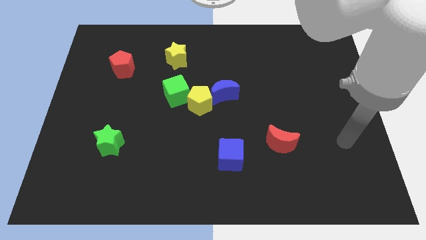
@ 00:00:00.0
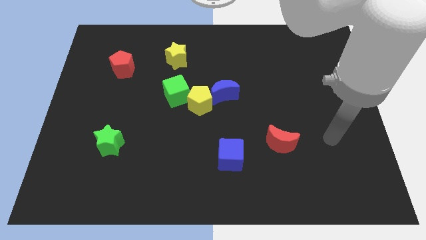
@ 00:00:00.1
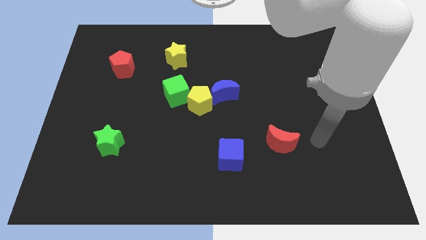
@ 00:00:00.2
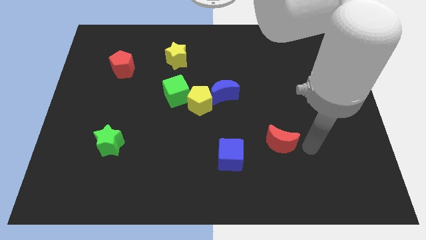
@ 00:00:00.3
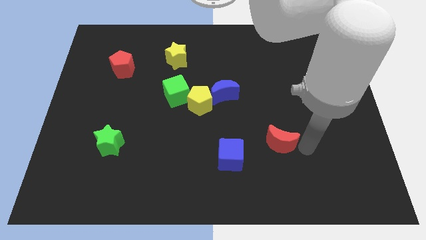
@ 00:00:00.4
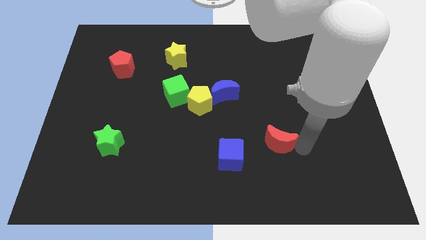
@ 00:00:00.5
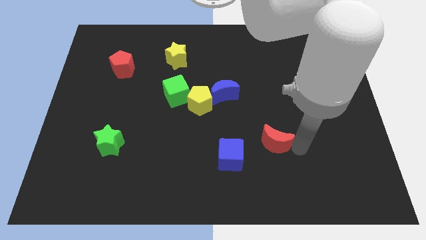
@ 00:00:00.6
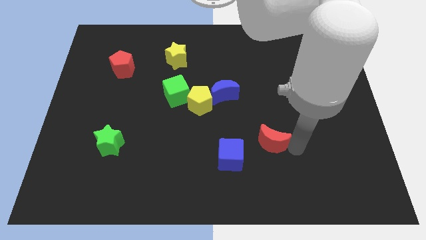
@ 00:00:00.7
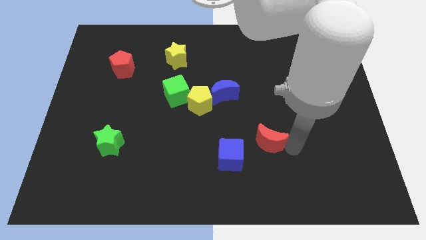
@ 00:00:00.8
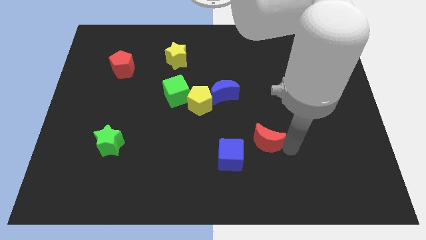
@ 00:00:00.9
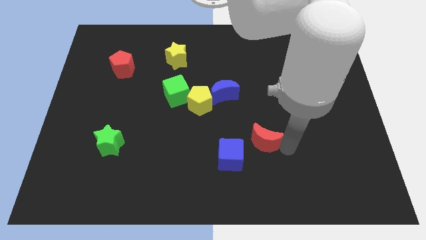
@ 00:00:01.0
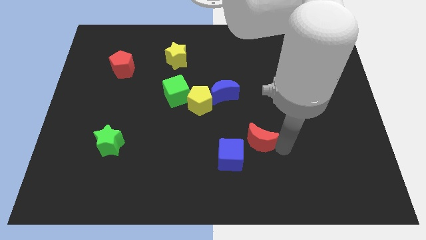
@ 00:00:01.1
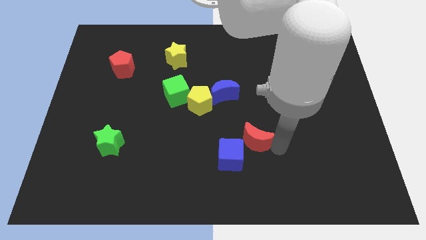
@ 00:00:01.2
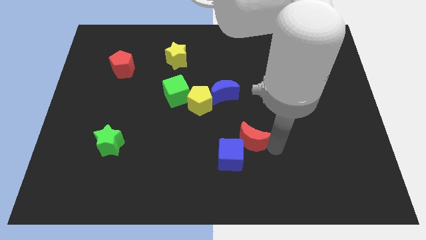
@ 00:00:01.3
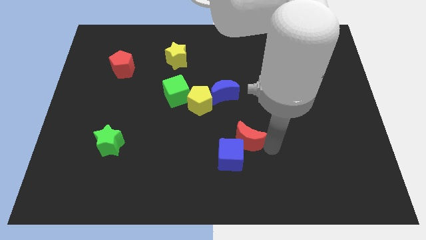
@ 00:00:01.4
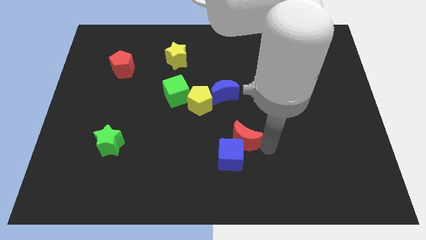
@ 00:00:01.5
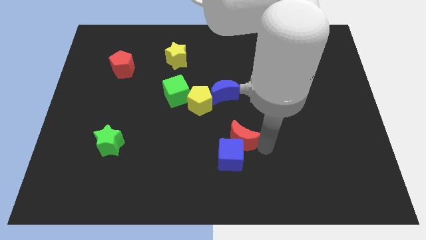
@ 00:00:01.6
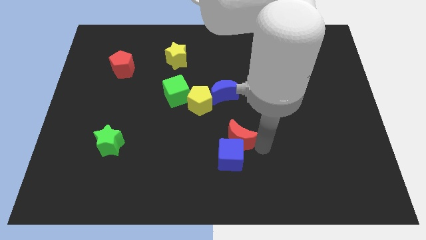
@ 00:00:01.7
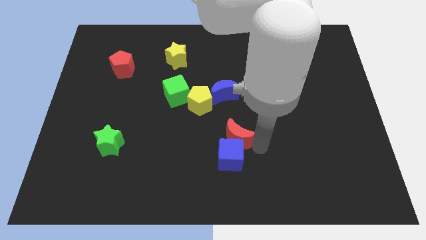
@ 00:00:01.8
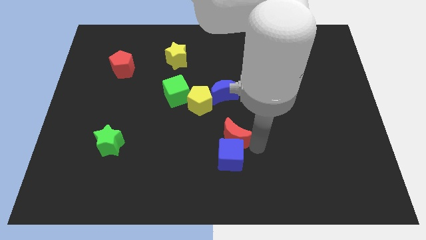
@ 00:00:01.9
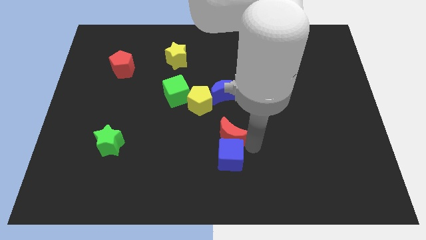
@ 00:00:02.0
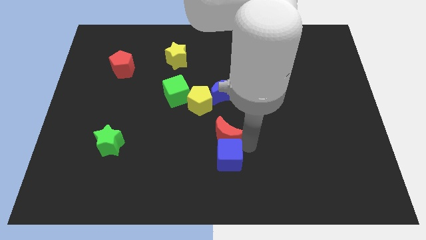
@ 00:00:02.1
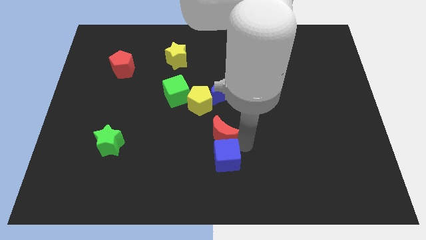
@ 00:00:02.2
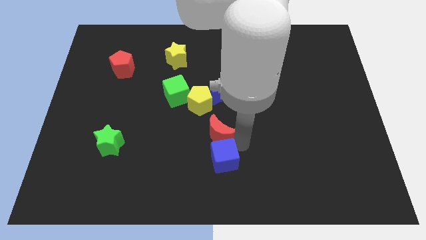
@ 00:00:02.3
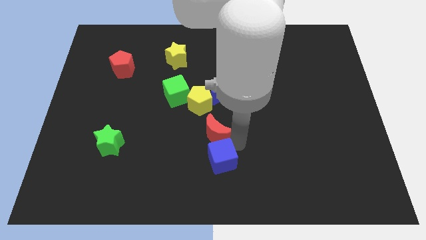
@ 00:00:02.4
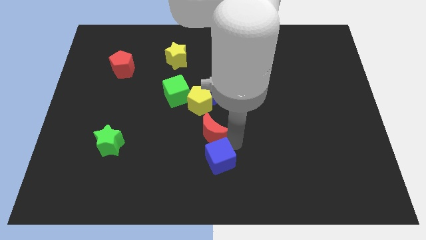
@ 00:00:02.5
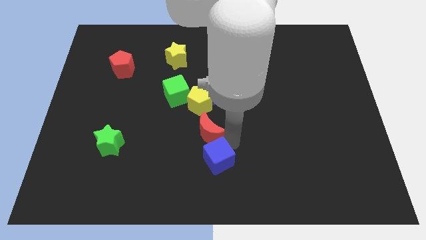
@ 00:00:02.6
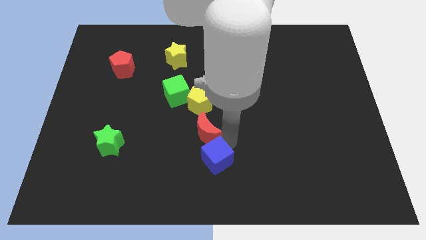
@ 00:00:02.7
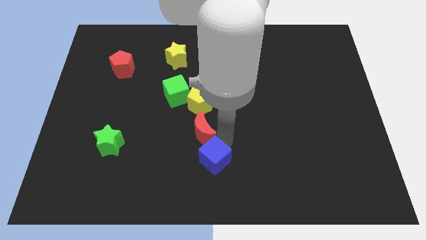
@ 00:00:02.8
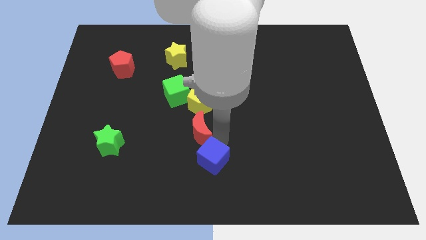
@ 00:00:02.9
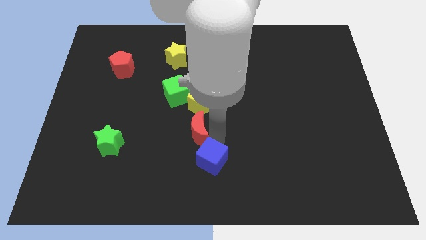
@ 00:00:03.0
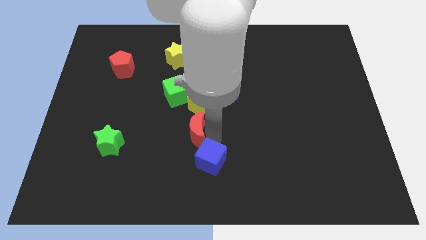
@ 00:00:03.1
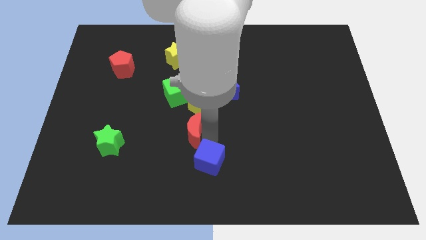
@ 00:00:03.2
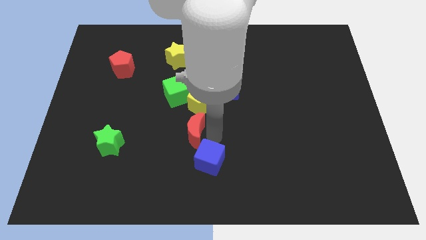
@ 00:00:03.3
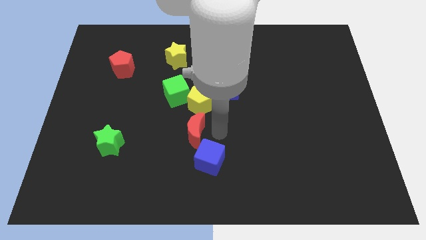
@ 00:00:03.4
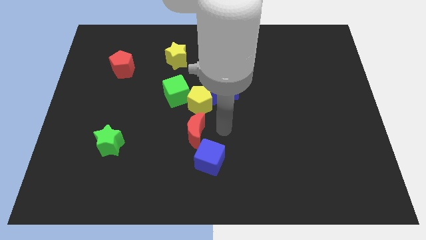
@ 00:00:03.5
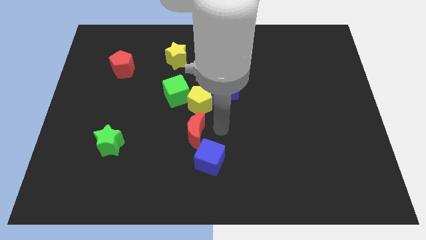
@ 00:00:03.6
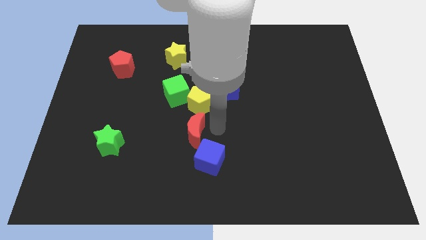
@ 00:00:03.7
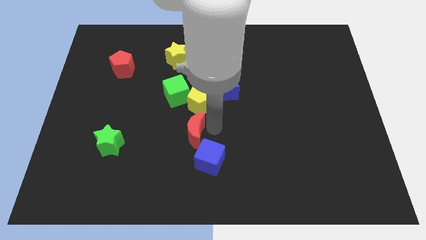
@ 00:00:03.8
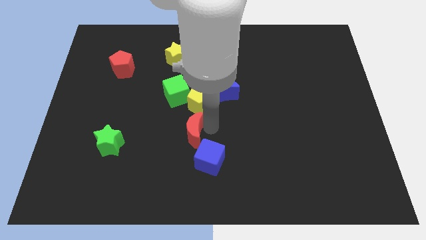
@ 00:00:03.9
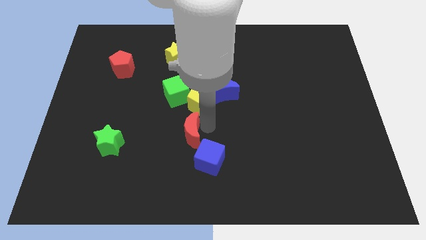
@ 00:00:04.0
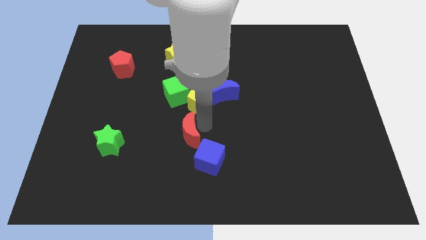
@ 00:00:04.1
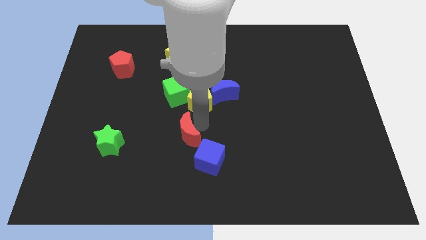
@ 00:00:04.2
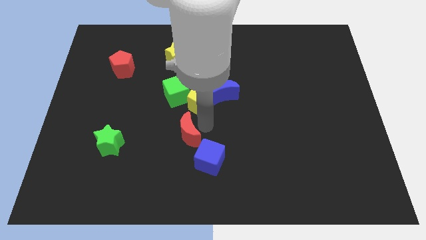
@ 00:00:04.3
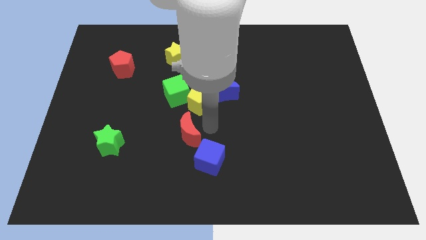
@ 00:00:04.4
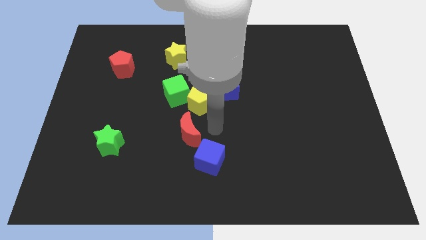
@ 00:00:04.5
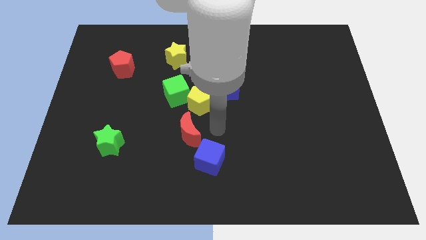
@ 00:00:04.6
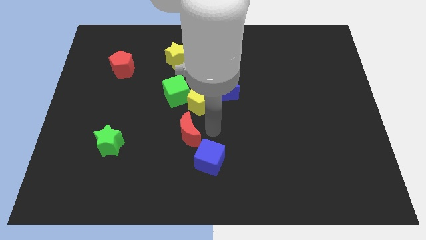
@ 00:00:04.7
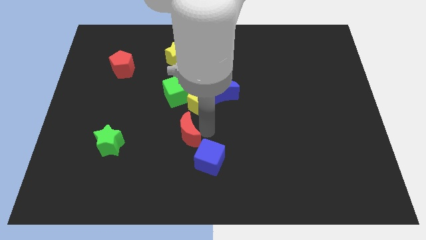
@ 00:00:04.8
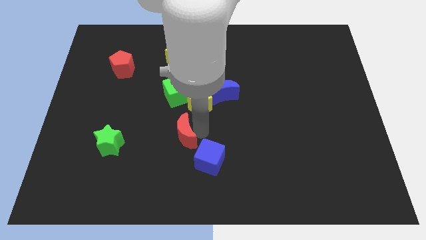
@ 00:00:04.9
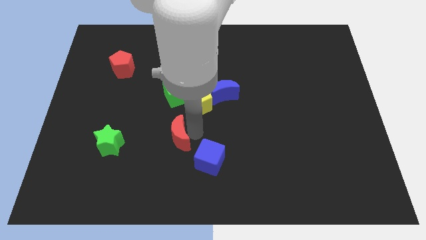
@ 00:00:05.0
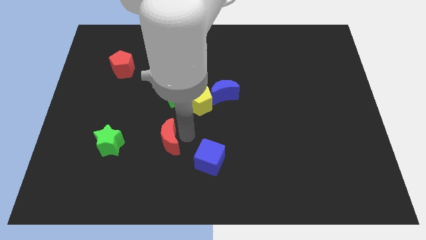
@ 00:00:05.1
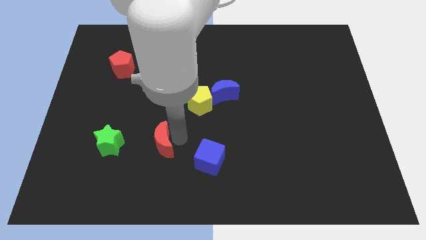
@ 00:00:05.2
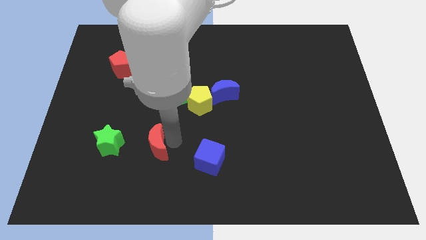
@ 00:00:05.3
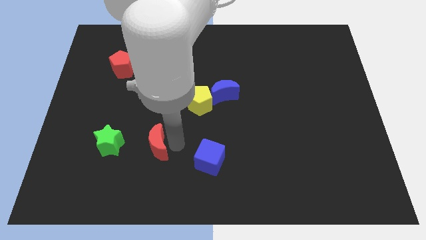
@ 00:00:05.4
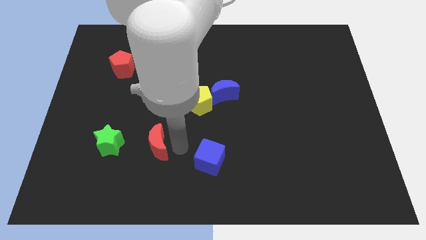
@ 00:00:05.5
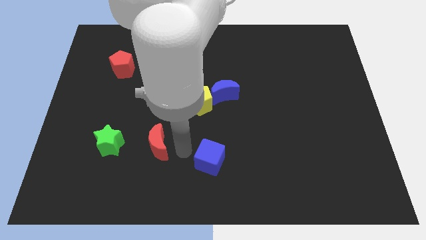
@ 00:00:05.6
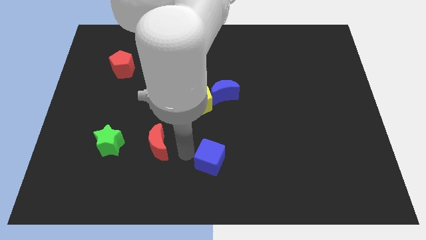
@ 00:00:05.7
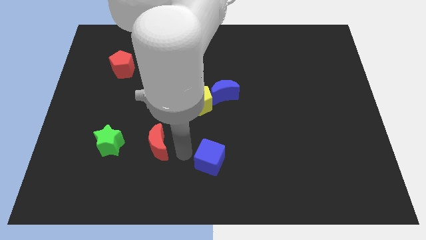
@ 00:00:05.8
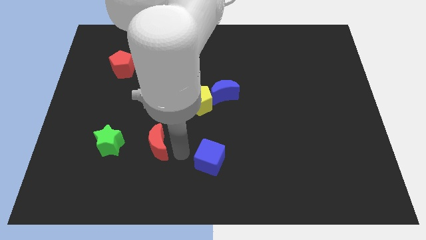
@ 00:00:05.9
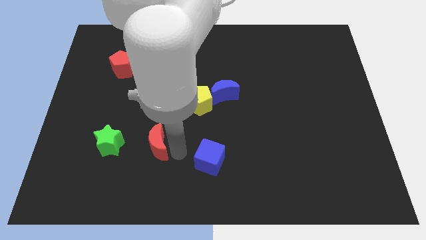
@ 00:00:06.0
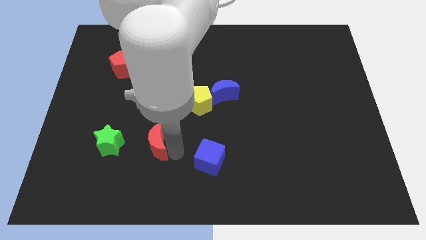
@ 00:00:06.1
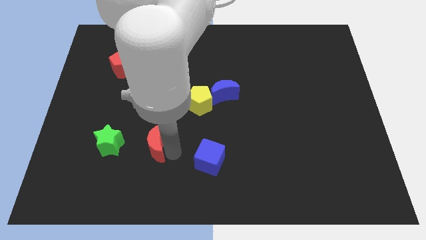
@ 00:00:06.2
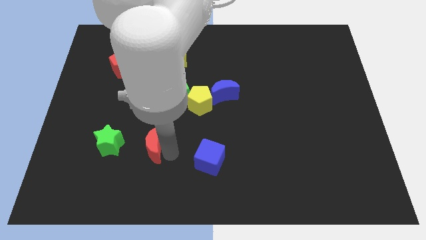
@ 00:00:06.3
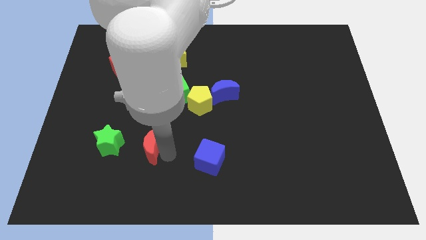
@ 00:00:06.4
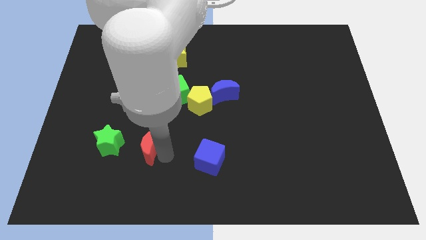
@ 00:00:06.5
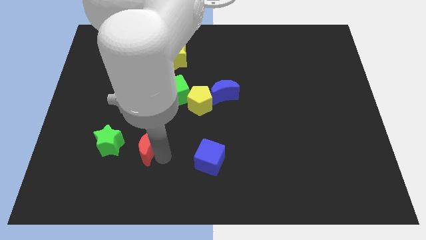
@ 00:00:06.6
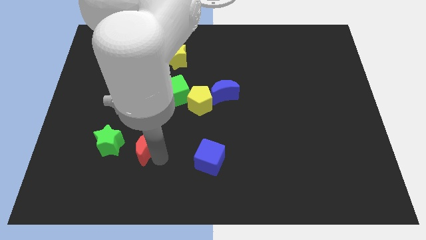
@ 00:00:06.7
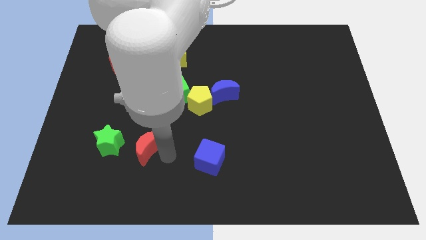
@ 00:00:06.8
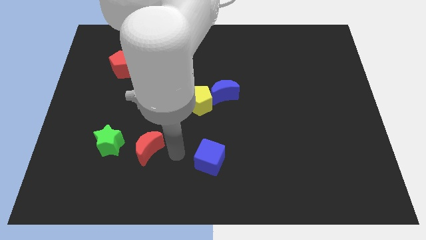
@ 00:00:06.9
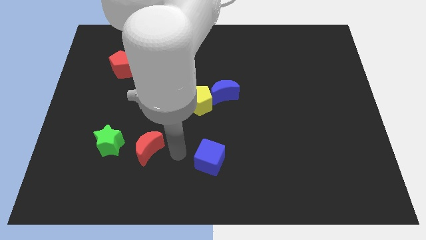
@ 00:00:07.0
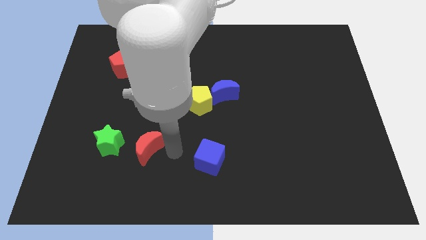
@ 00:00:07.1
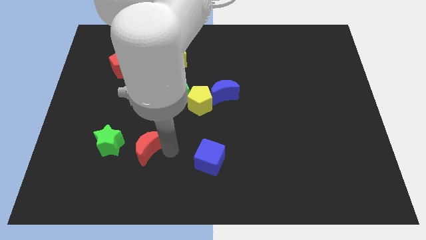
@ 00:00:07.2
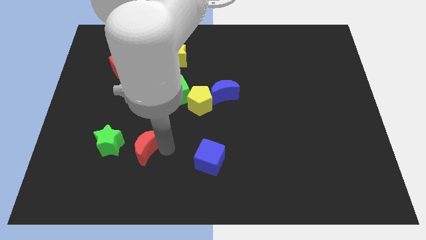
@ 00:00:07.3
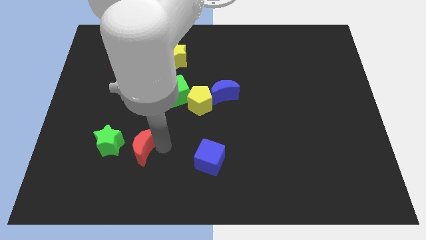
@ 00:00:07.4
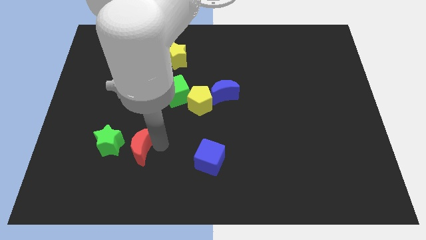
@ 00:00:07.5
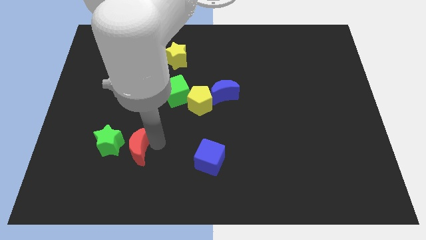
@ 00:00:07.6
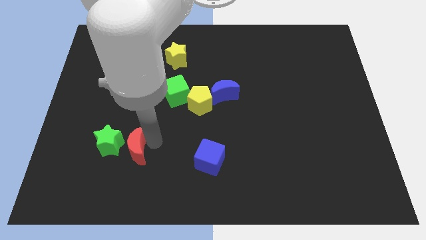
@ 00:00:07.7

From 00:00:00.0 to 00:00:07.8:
put the red moon to the green star
